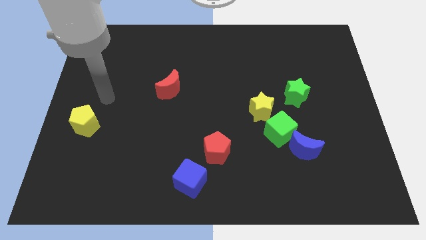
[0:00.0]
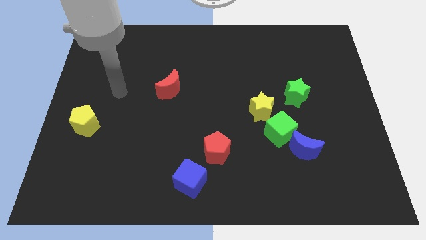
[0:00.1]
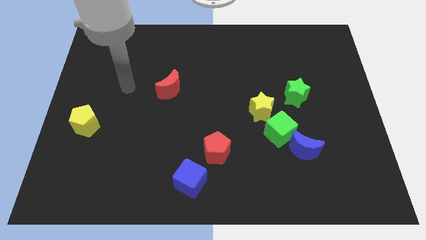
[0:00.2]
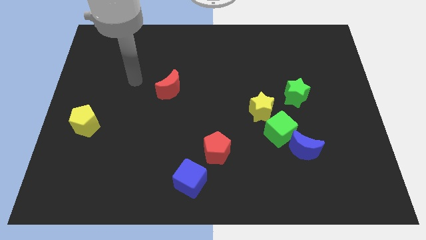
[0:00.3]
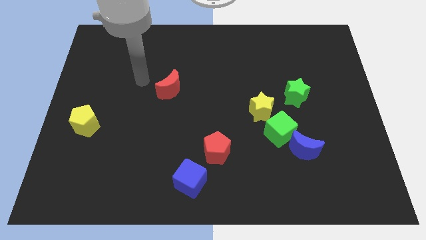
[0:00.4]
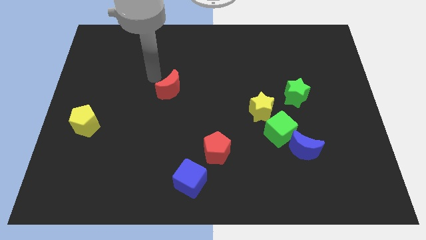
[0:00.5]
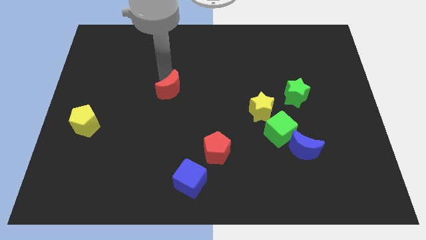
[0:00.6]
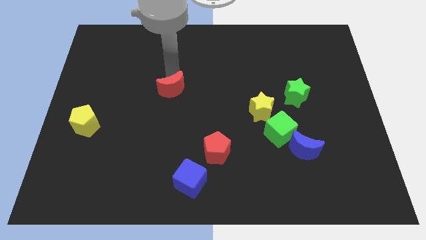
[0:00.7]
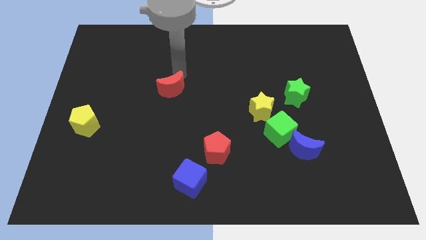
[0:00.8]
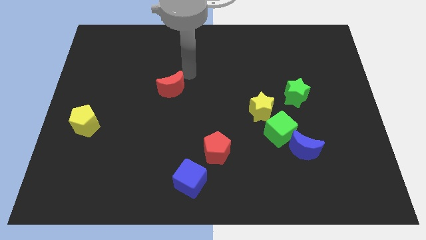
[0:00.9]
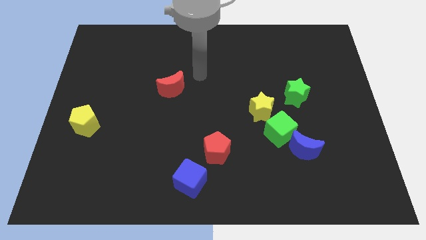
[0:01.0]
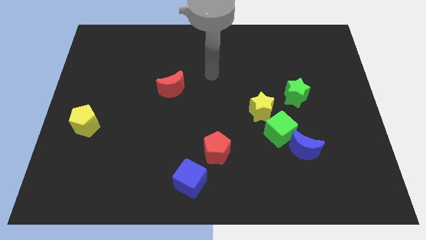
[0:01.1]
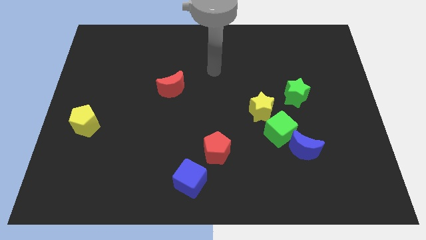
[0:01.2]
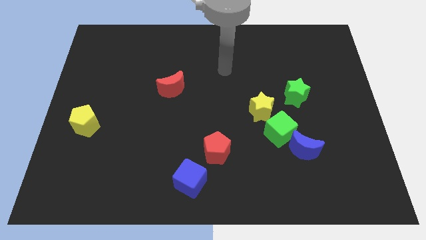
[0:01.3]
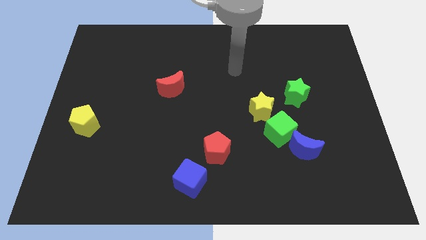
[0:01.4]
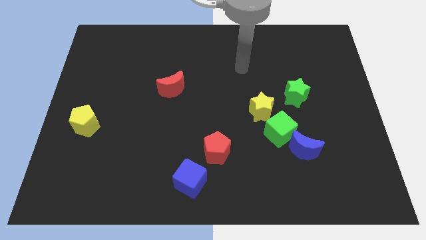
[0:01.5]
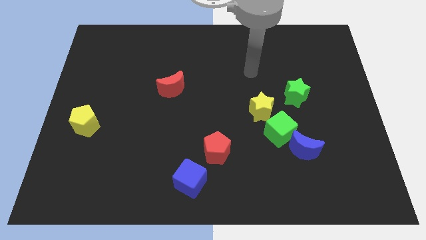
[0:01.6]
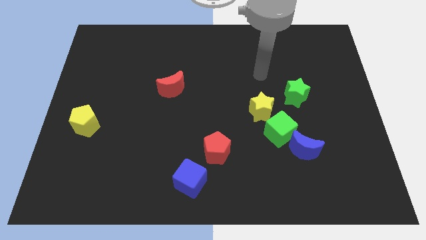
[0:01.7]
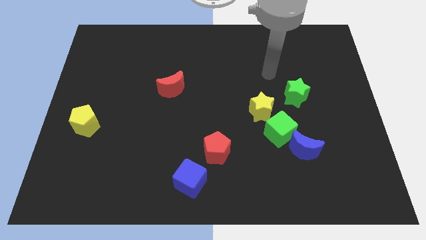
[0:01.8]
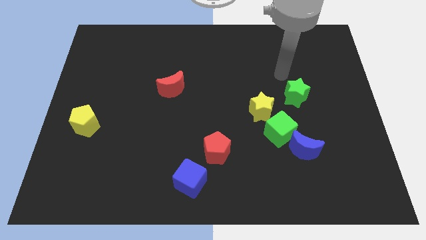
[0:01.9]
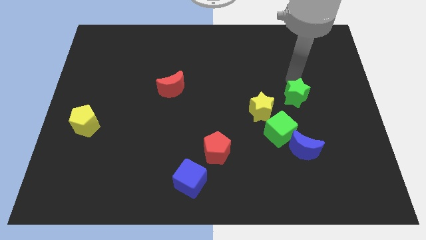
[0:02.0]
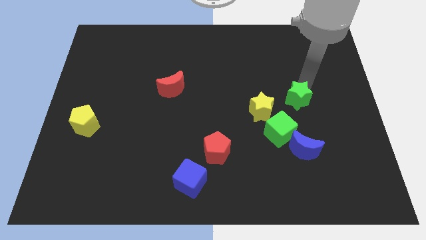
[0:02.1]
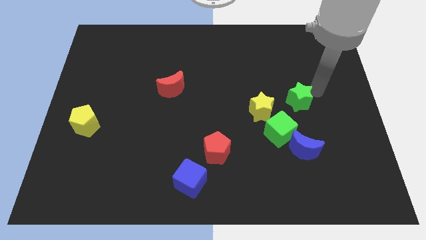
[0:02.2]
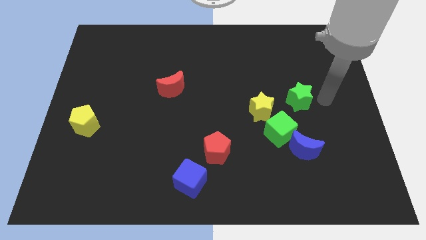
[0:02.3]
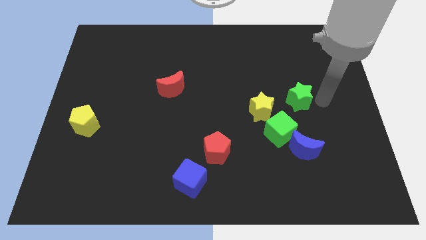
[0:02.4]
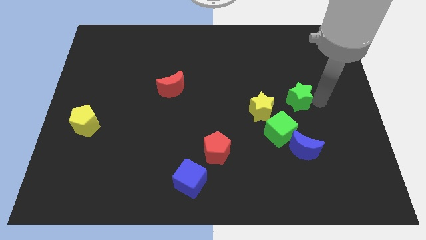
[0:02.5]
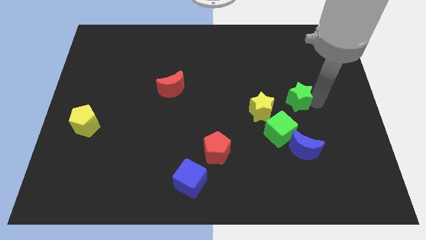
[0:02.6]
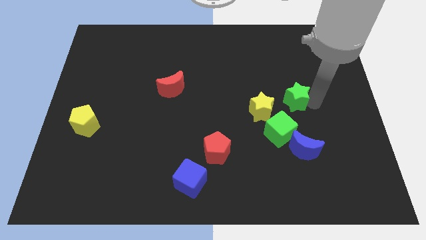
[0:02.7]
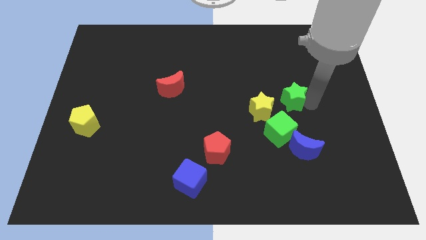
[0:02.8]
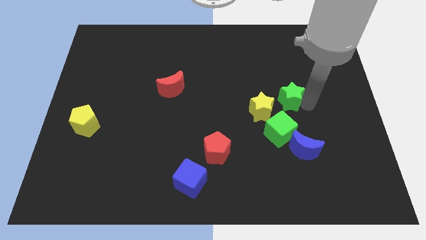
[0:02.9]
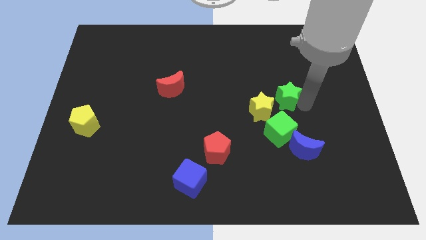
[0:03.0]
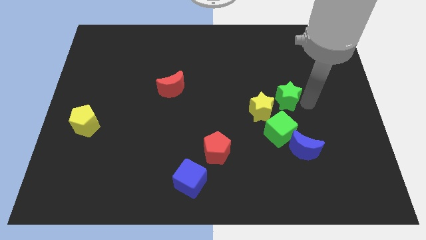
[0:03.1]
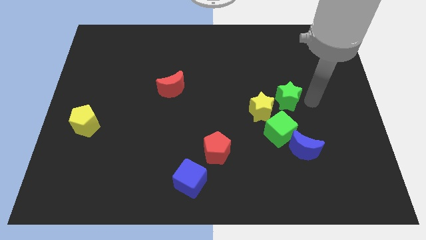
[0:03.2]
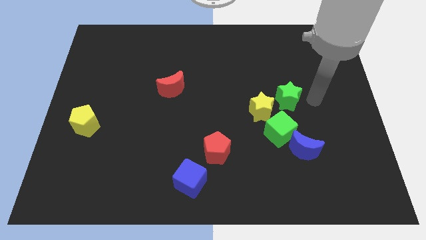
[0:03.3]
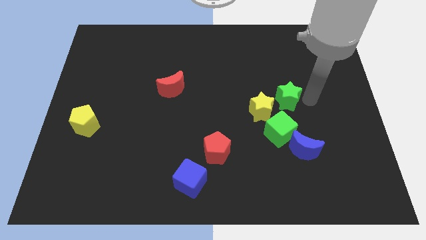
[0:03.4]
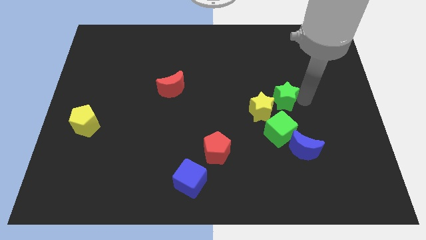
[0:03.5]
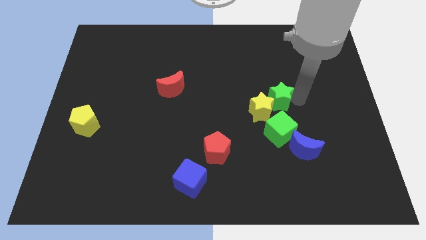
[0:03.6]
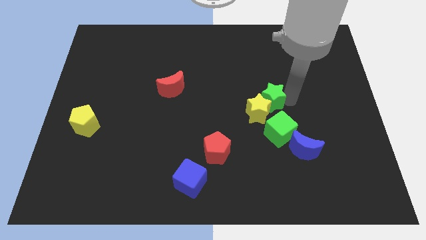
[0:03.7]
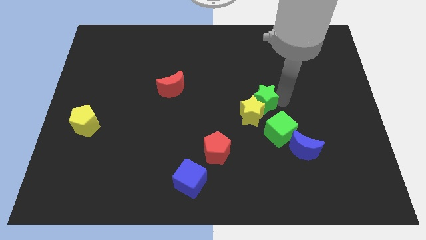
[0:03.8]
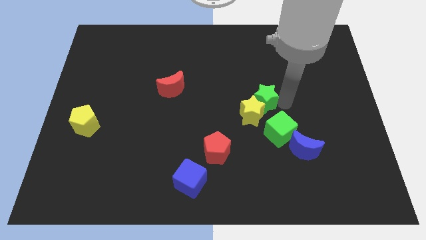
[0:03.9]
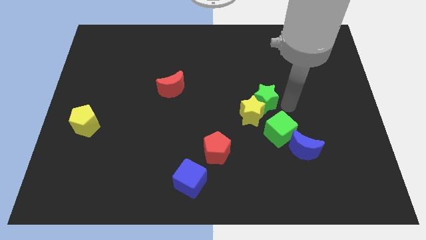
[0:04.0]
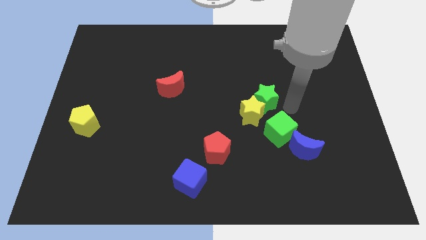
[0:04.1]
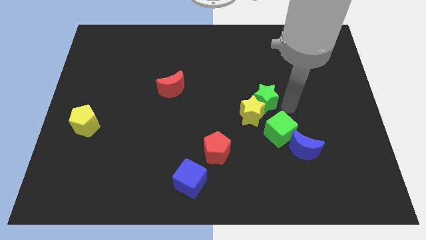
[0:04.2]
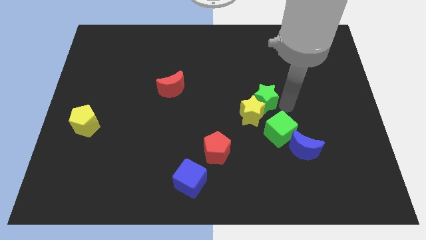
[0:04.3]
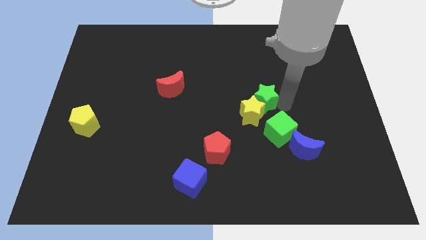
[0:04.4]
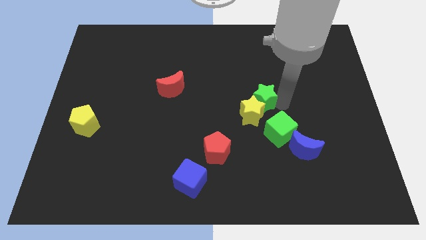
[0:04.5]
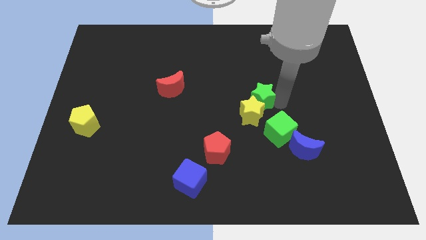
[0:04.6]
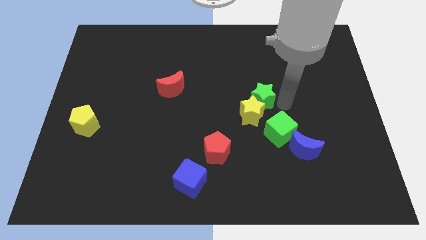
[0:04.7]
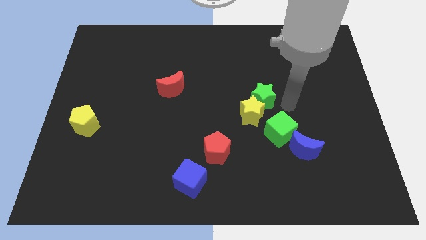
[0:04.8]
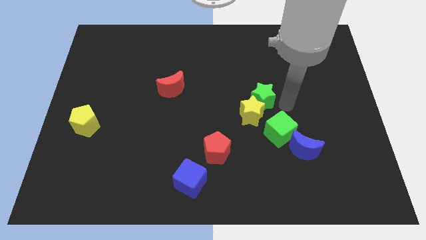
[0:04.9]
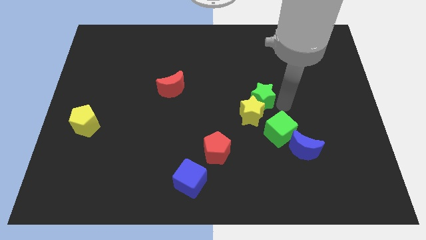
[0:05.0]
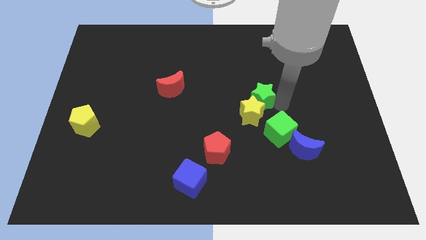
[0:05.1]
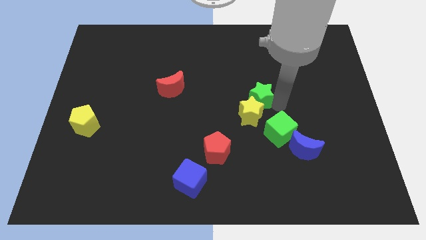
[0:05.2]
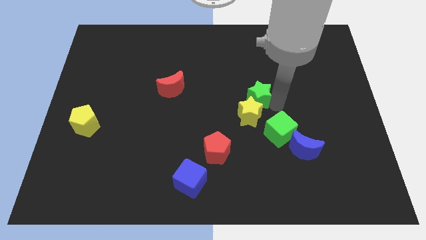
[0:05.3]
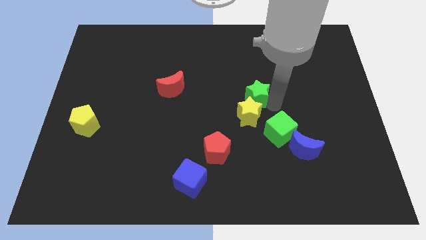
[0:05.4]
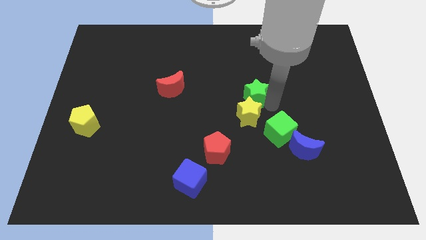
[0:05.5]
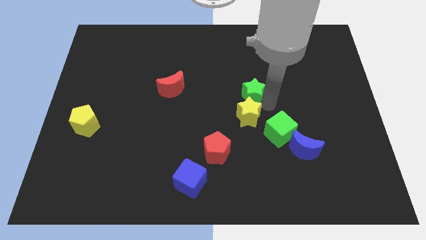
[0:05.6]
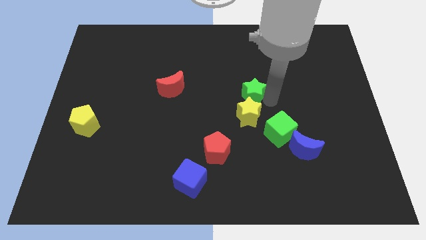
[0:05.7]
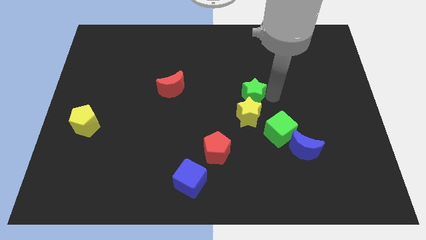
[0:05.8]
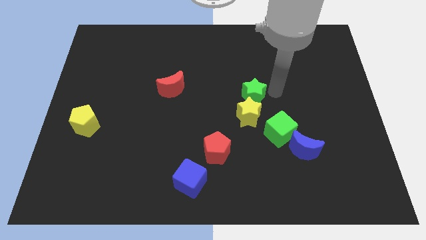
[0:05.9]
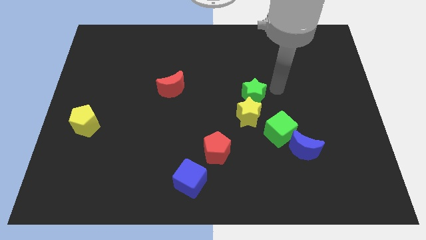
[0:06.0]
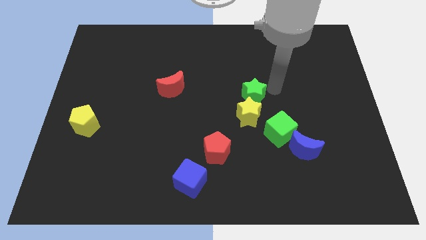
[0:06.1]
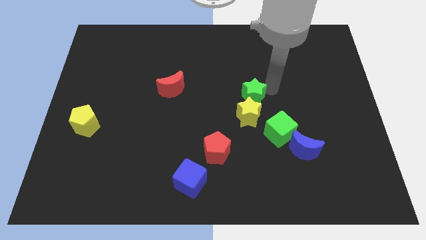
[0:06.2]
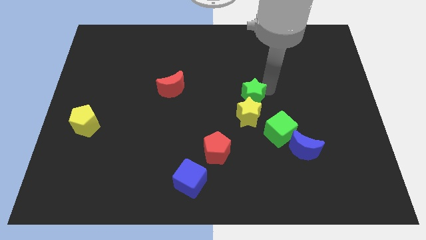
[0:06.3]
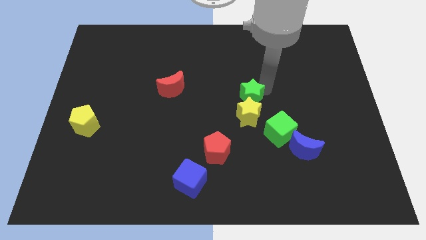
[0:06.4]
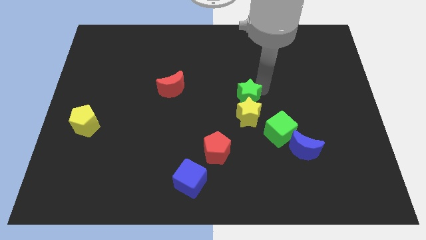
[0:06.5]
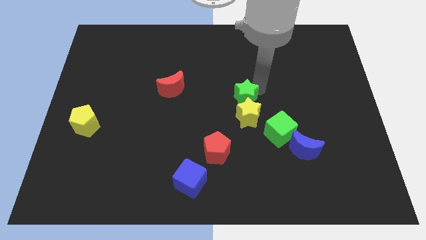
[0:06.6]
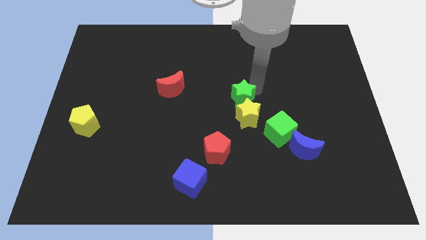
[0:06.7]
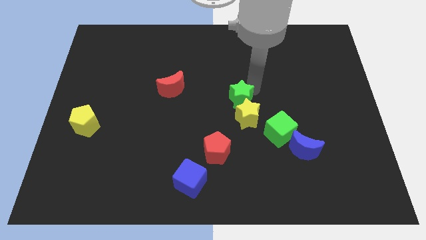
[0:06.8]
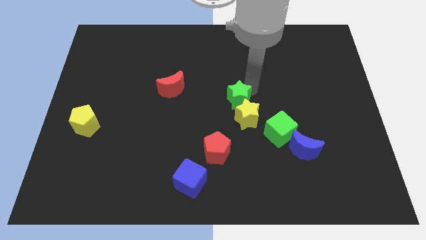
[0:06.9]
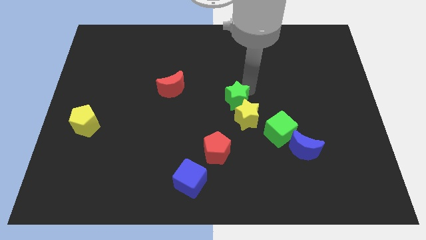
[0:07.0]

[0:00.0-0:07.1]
slightly move the green star down and left diagonally

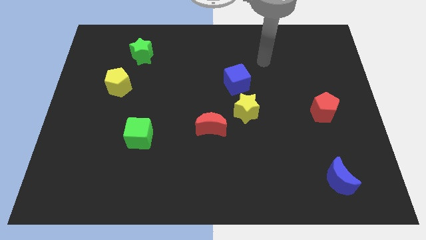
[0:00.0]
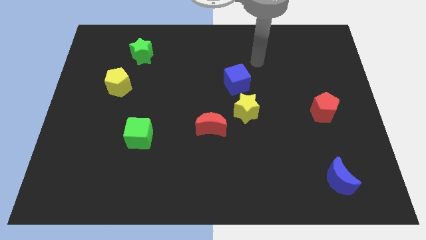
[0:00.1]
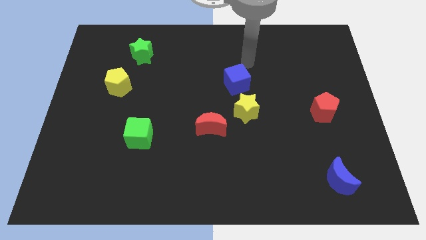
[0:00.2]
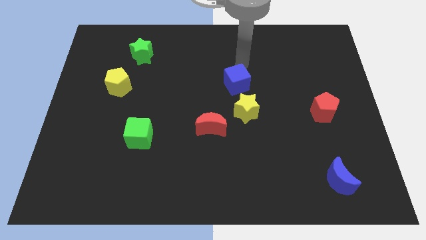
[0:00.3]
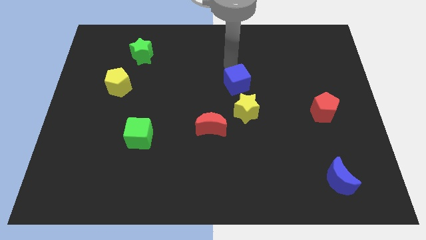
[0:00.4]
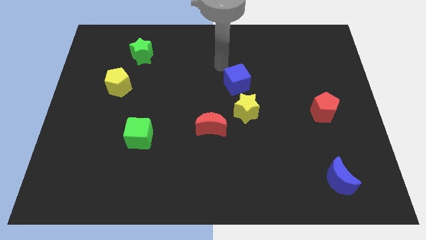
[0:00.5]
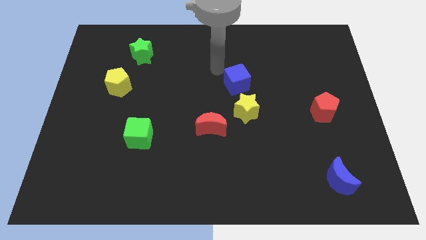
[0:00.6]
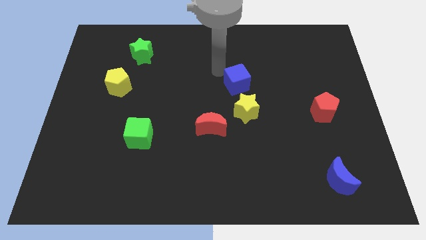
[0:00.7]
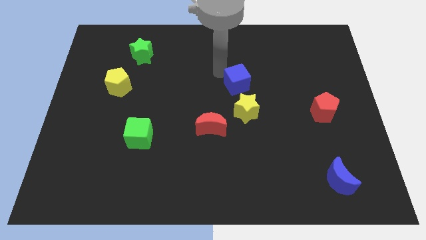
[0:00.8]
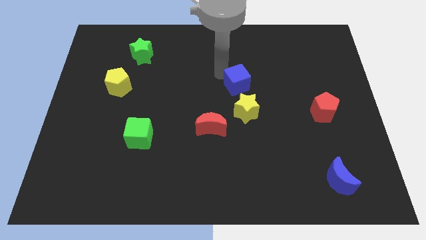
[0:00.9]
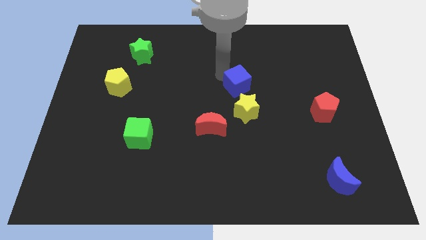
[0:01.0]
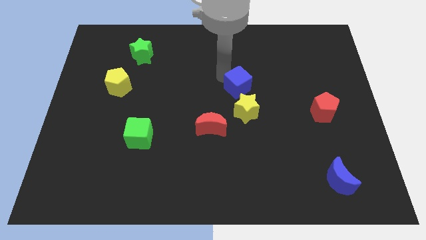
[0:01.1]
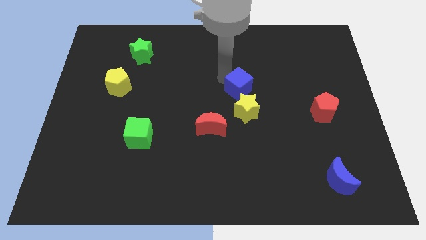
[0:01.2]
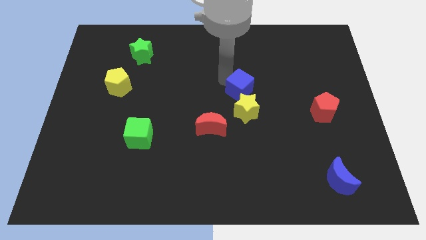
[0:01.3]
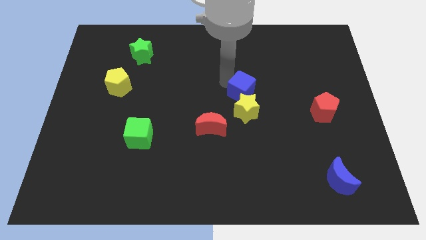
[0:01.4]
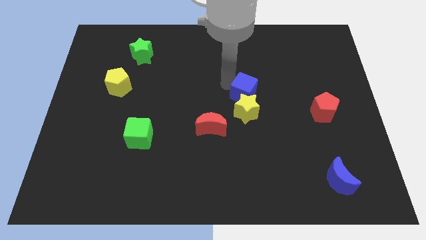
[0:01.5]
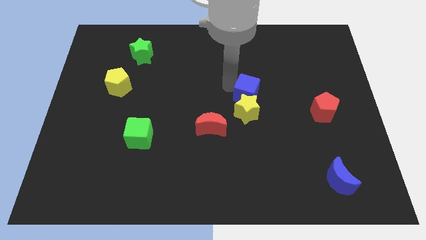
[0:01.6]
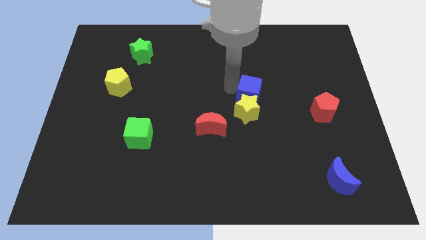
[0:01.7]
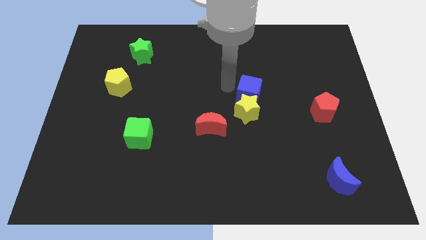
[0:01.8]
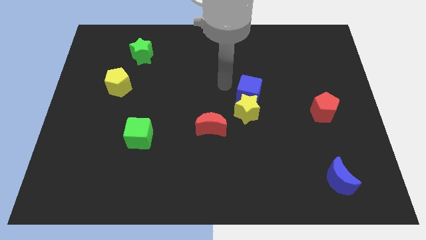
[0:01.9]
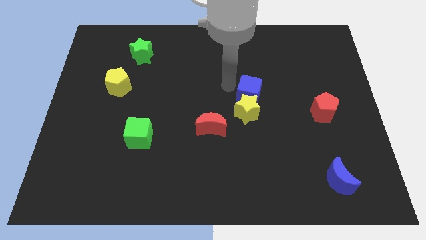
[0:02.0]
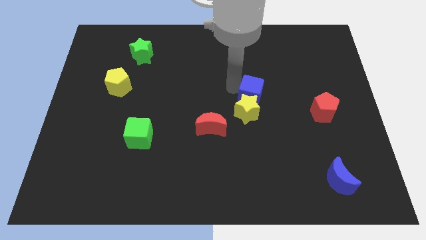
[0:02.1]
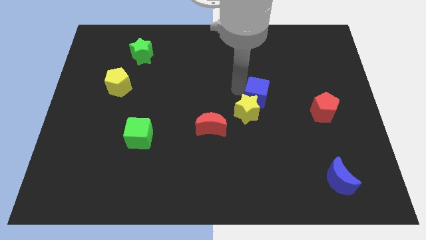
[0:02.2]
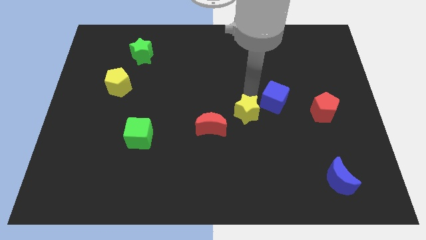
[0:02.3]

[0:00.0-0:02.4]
slide the blue cube downwards and to the right diagonally a bit
